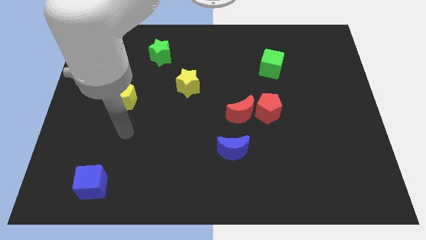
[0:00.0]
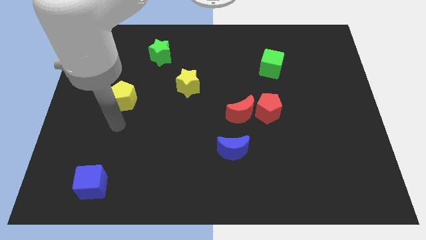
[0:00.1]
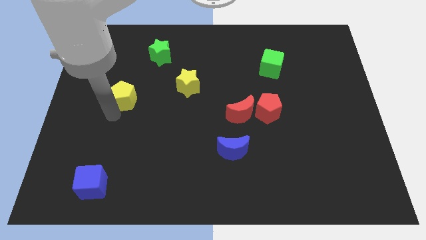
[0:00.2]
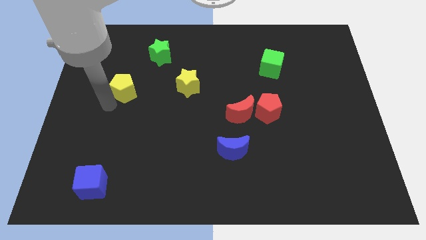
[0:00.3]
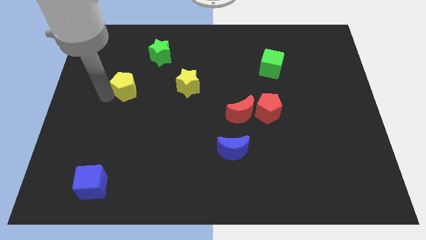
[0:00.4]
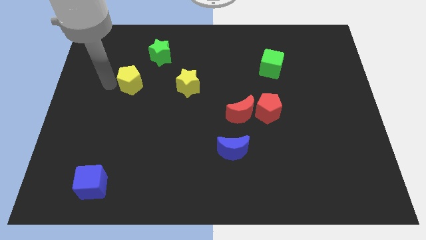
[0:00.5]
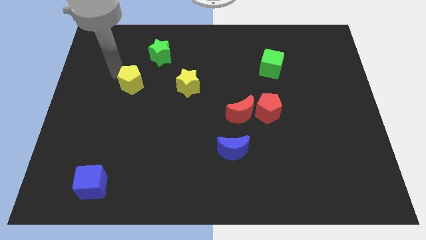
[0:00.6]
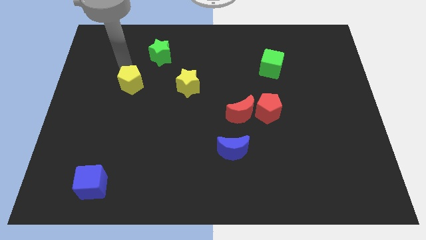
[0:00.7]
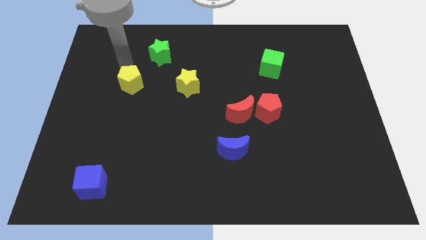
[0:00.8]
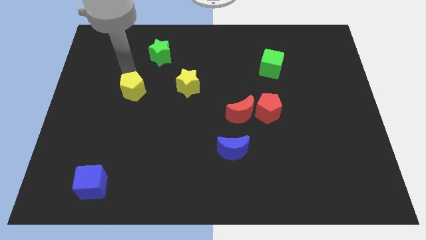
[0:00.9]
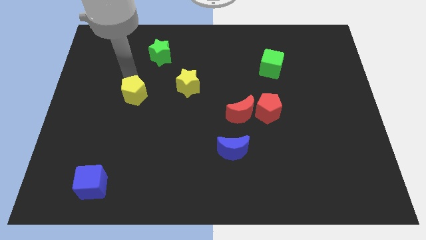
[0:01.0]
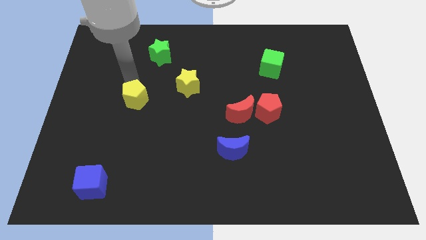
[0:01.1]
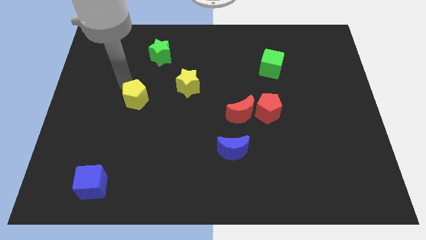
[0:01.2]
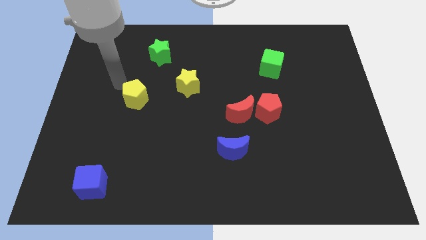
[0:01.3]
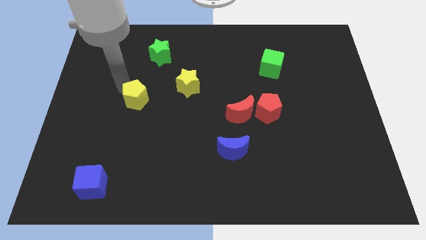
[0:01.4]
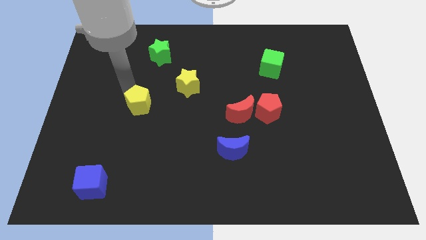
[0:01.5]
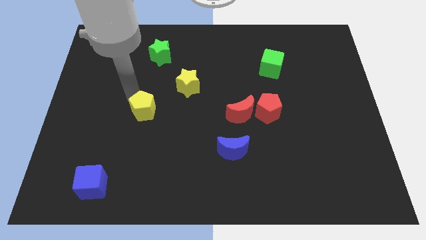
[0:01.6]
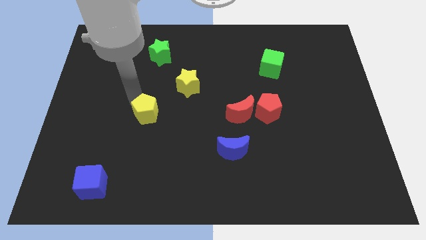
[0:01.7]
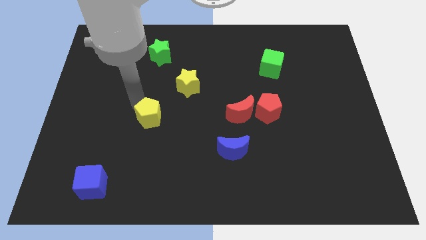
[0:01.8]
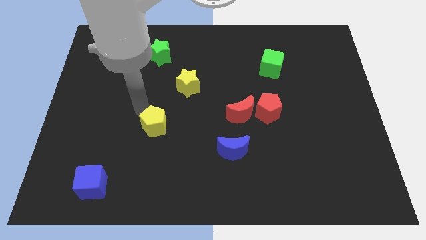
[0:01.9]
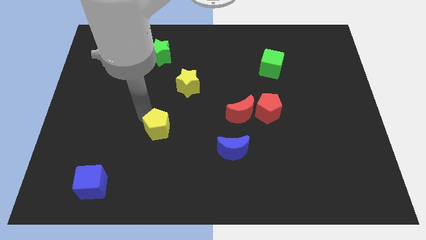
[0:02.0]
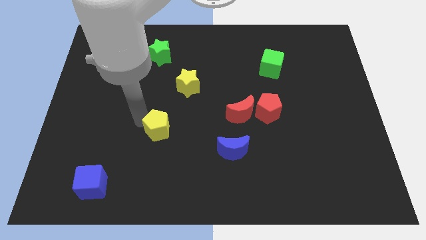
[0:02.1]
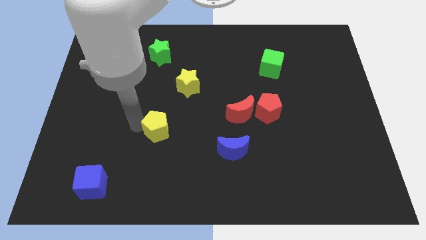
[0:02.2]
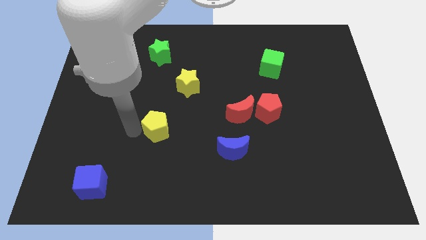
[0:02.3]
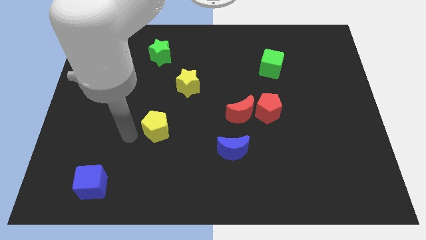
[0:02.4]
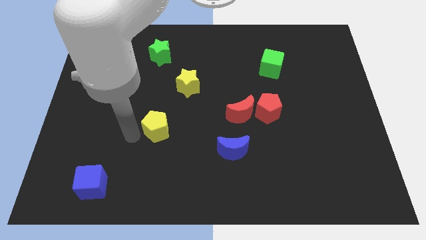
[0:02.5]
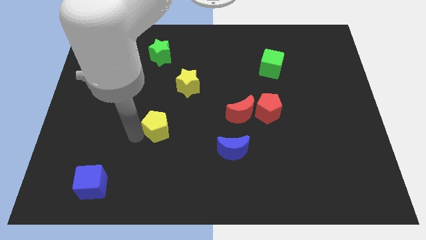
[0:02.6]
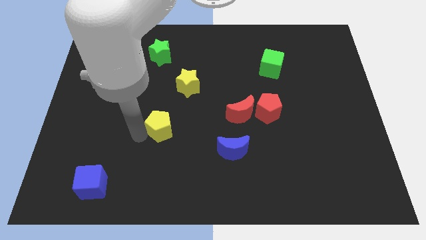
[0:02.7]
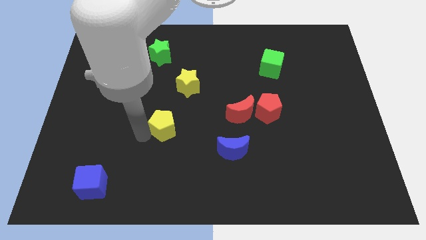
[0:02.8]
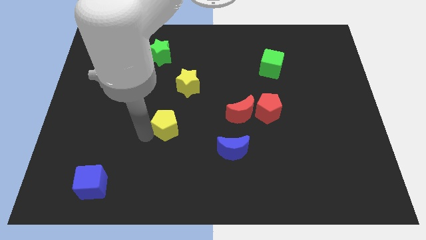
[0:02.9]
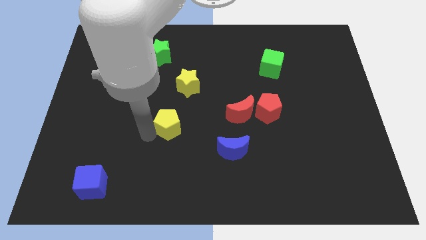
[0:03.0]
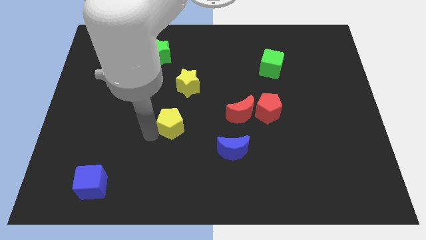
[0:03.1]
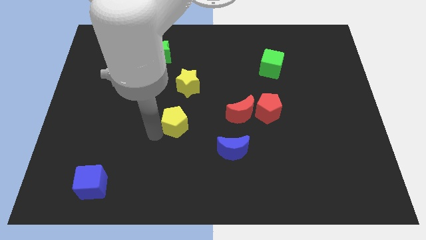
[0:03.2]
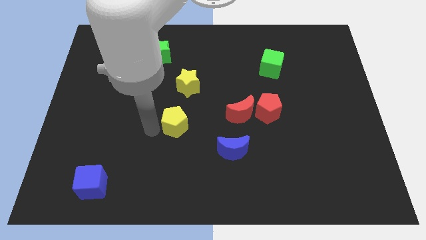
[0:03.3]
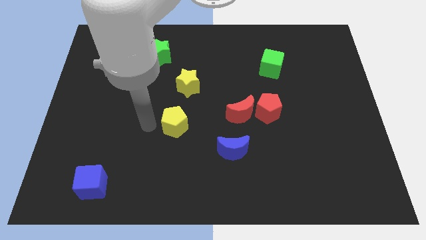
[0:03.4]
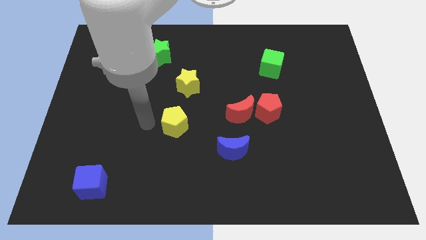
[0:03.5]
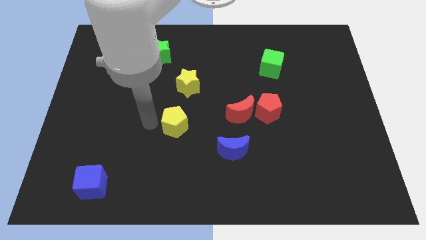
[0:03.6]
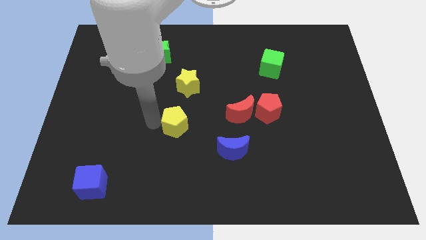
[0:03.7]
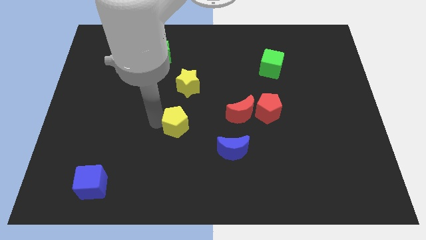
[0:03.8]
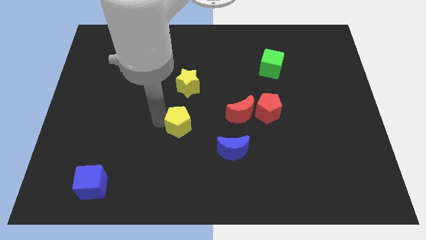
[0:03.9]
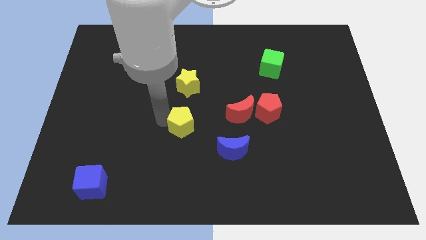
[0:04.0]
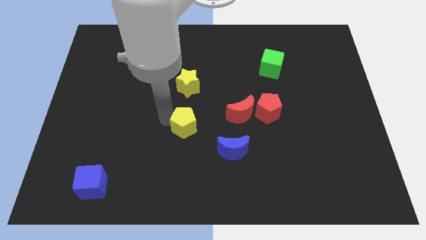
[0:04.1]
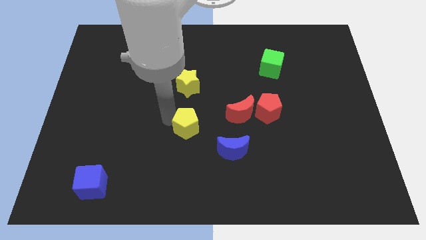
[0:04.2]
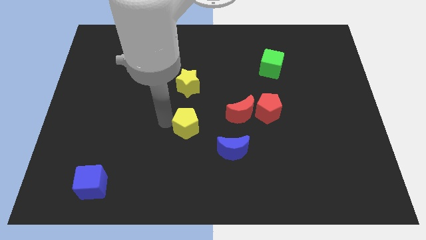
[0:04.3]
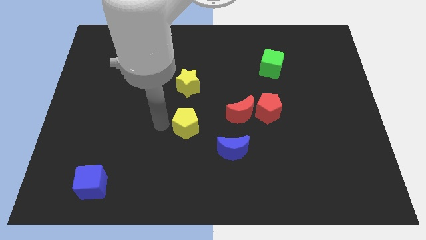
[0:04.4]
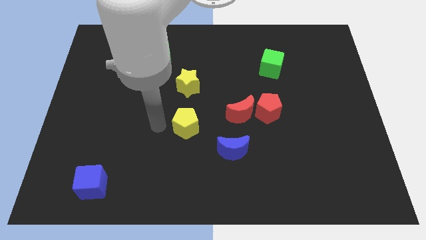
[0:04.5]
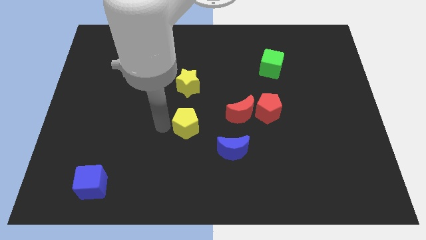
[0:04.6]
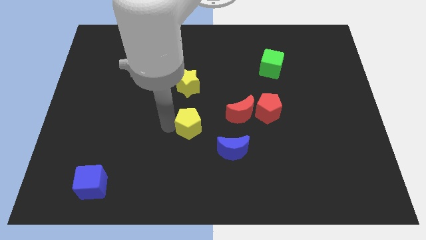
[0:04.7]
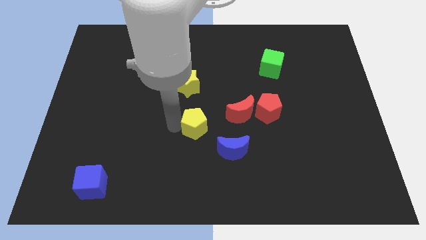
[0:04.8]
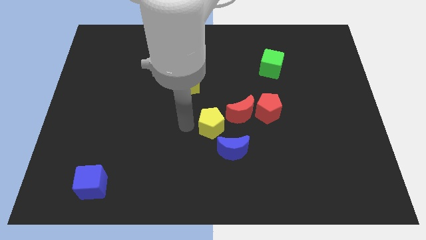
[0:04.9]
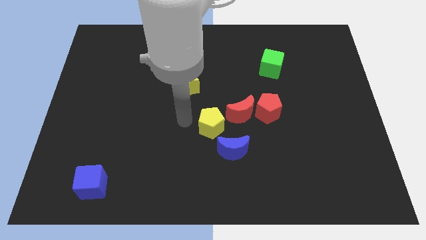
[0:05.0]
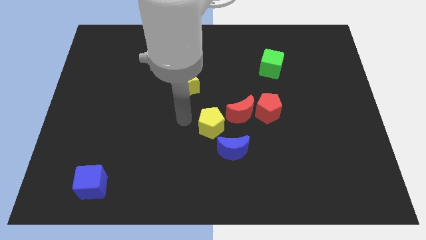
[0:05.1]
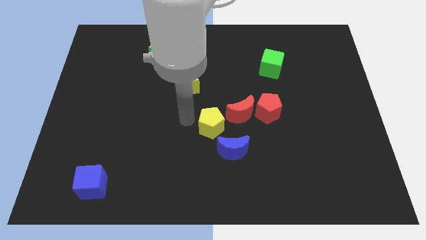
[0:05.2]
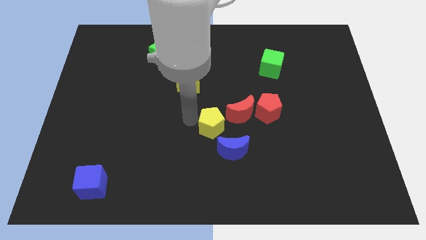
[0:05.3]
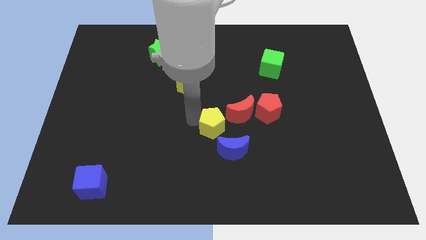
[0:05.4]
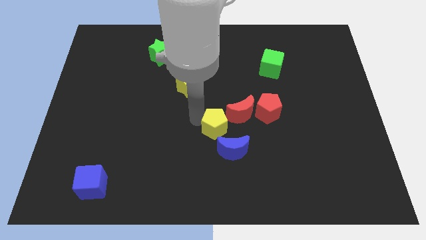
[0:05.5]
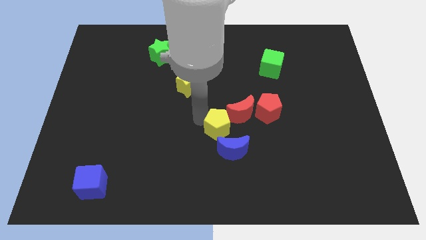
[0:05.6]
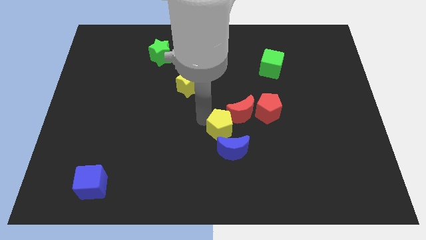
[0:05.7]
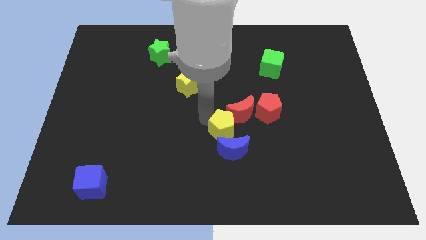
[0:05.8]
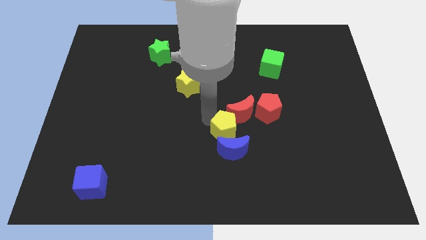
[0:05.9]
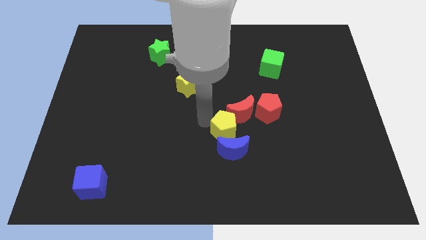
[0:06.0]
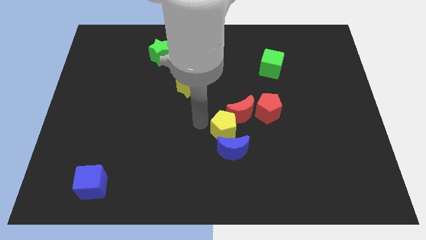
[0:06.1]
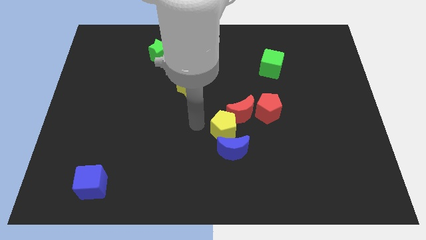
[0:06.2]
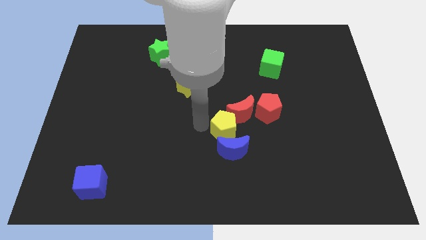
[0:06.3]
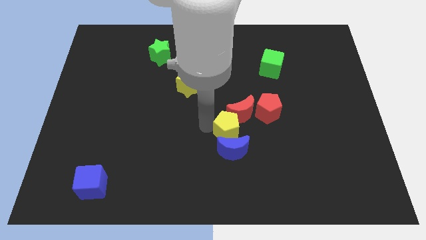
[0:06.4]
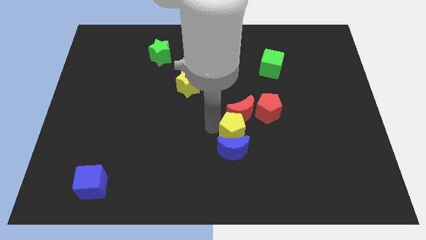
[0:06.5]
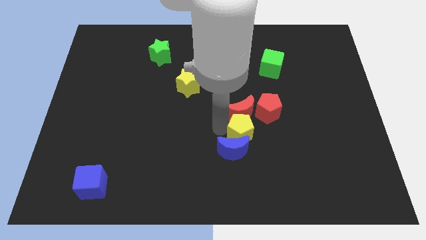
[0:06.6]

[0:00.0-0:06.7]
move the yellow pentagon to the bottom right side of the red moon

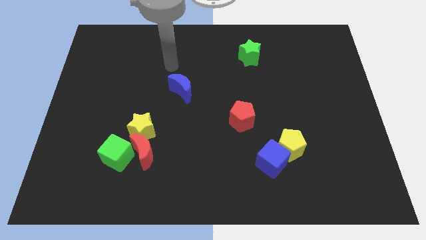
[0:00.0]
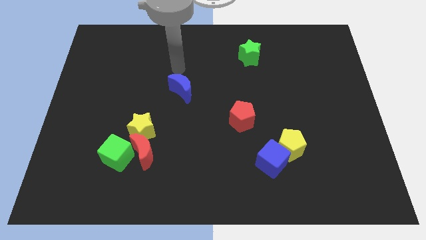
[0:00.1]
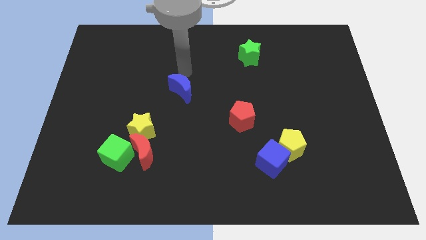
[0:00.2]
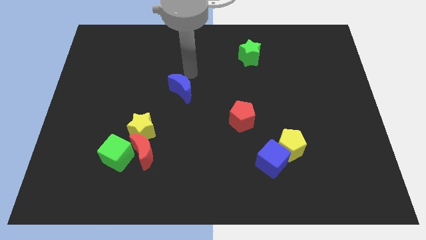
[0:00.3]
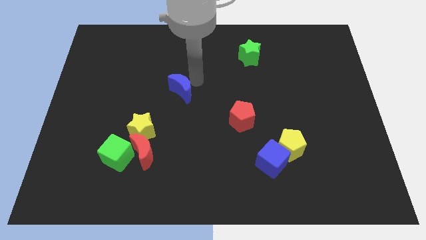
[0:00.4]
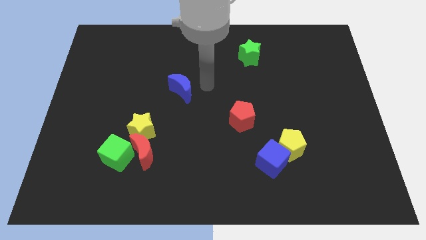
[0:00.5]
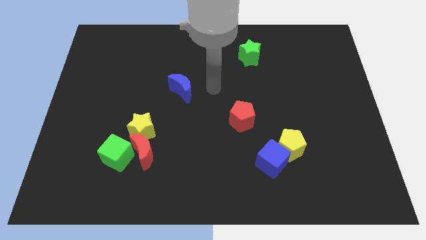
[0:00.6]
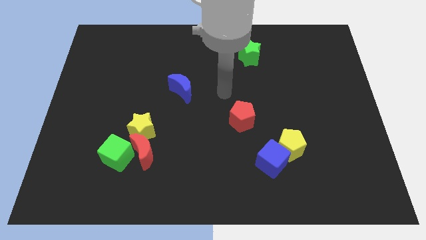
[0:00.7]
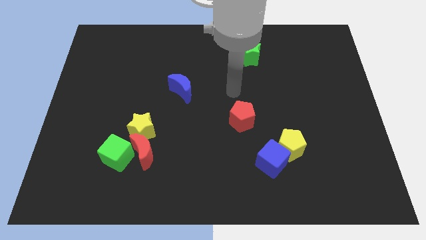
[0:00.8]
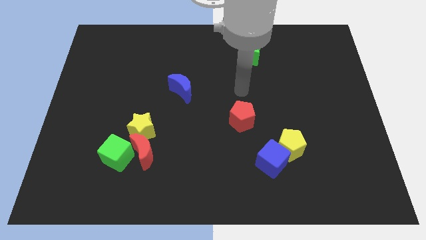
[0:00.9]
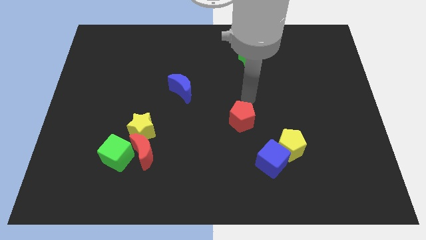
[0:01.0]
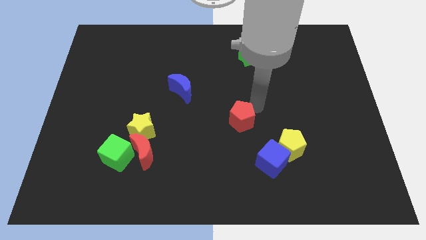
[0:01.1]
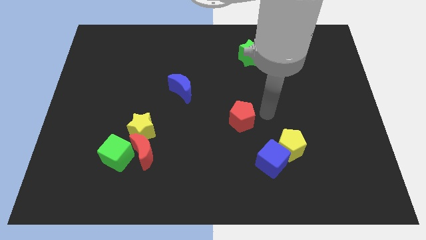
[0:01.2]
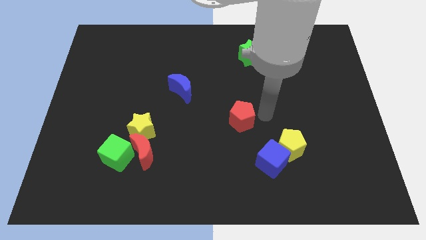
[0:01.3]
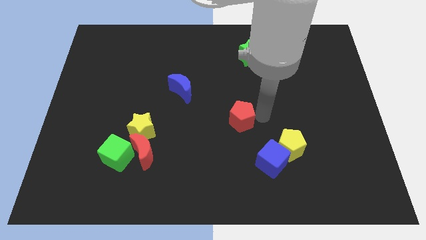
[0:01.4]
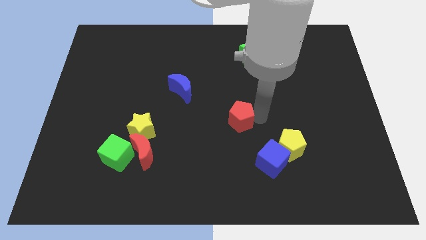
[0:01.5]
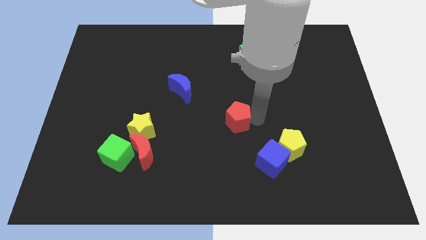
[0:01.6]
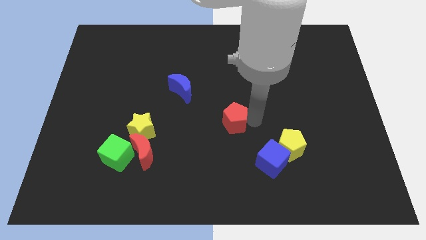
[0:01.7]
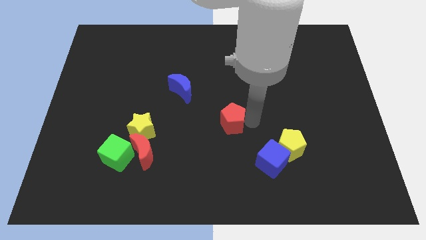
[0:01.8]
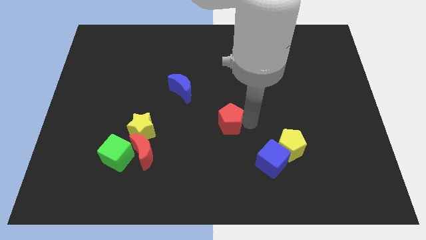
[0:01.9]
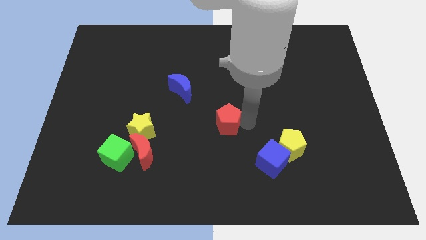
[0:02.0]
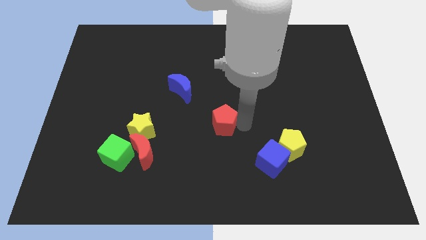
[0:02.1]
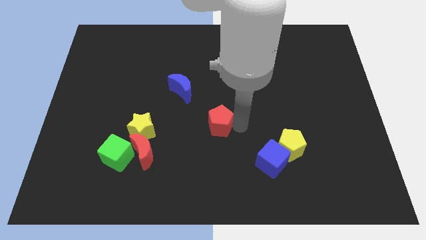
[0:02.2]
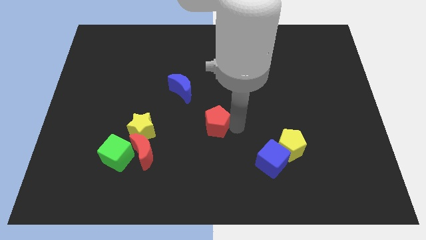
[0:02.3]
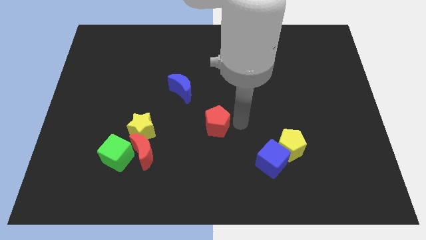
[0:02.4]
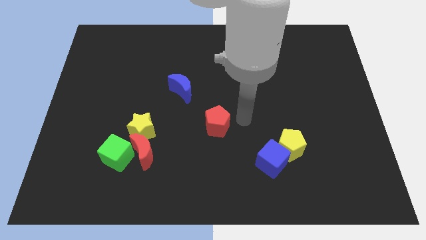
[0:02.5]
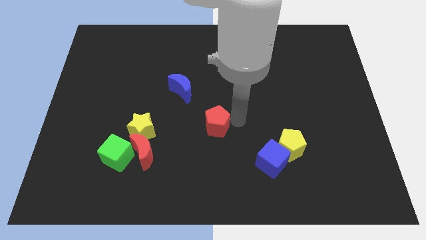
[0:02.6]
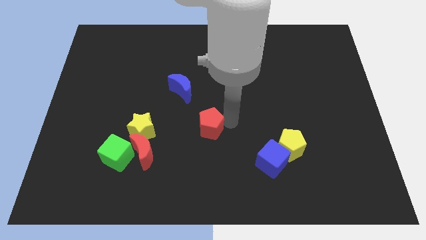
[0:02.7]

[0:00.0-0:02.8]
move the red pentagon to the right side of the yellow star
